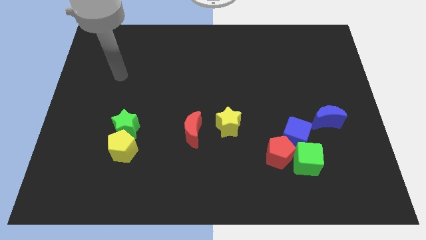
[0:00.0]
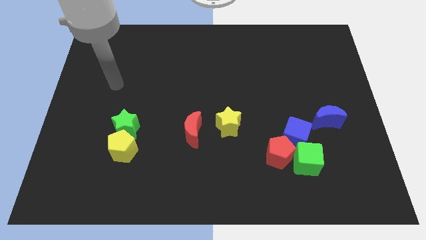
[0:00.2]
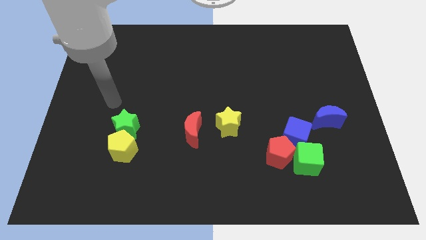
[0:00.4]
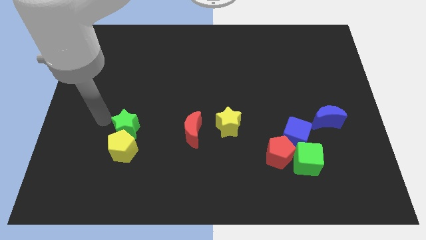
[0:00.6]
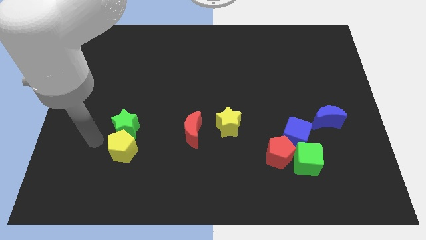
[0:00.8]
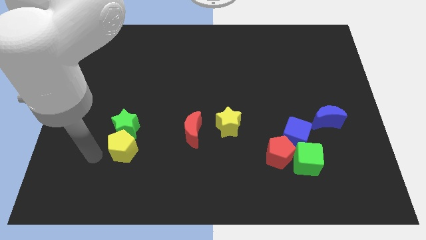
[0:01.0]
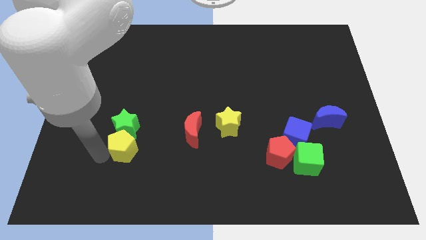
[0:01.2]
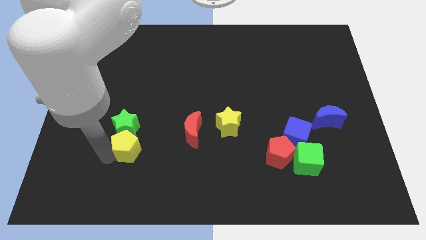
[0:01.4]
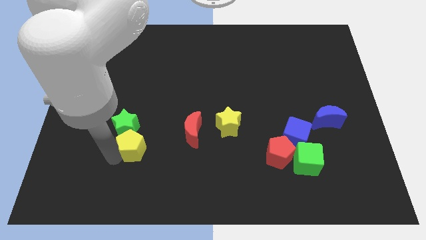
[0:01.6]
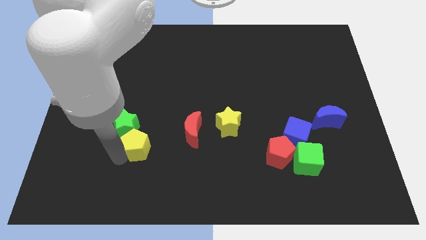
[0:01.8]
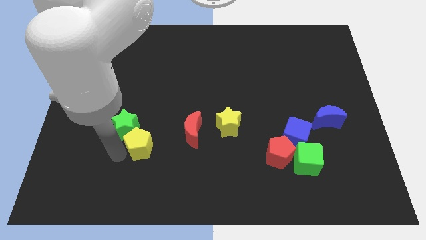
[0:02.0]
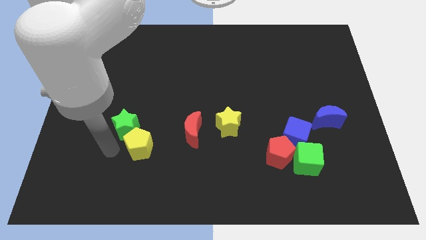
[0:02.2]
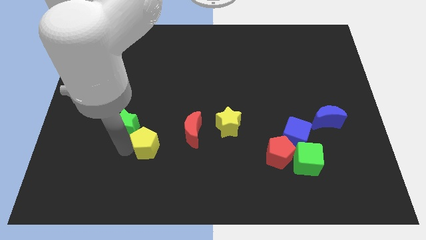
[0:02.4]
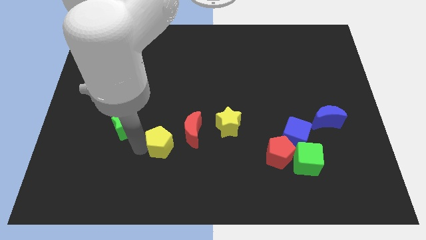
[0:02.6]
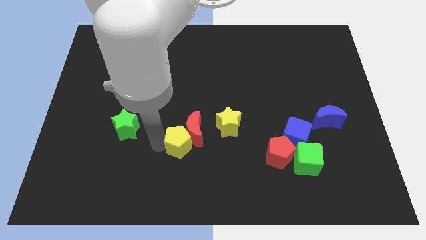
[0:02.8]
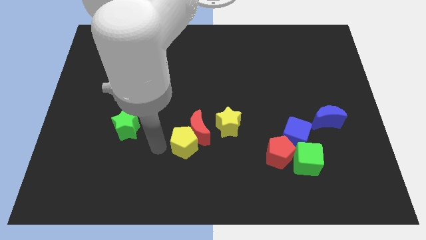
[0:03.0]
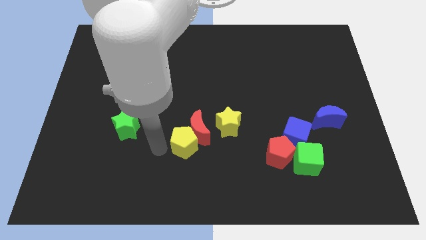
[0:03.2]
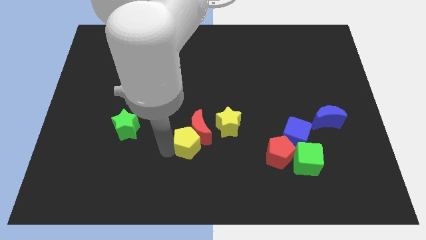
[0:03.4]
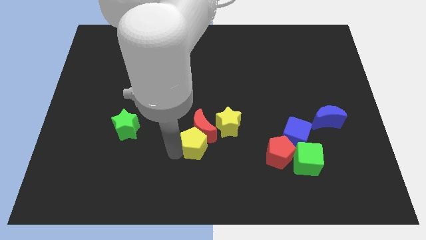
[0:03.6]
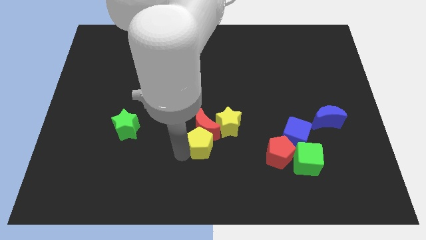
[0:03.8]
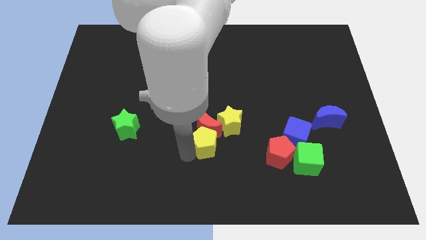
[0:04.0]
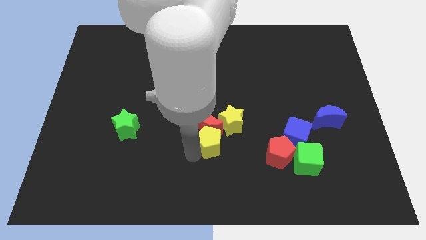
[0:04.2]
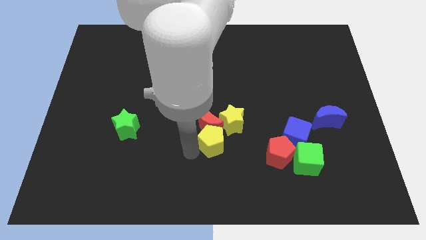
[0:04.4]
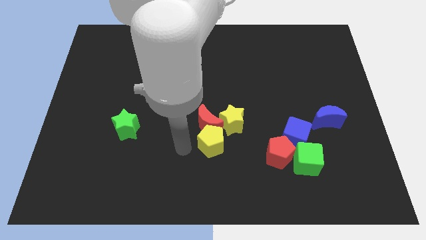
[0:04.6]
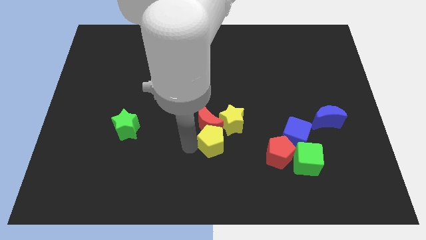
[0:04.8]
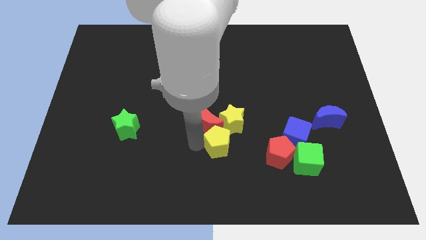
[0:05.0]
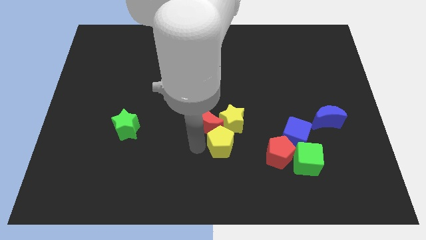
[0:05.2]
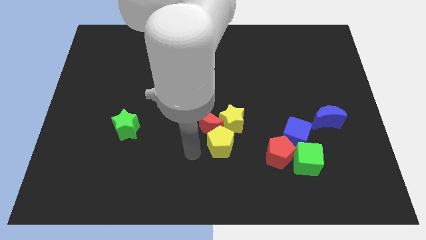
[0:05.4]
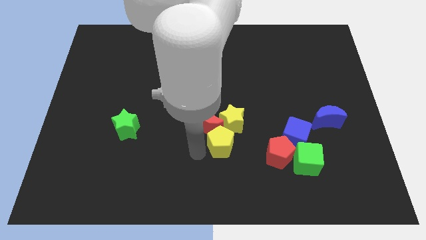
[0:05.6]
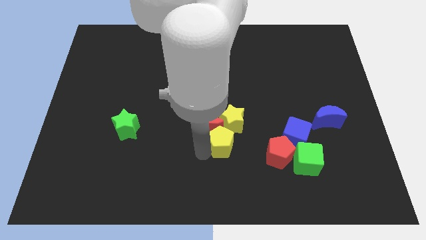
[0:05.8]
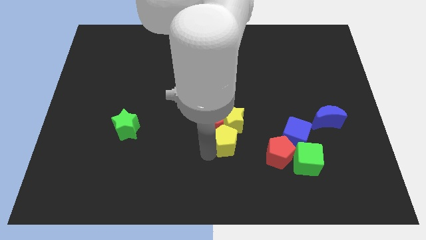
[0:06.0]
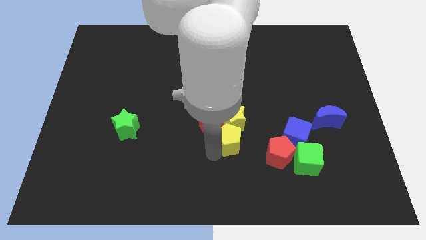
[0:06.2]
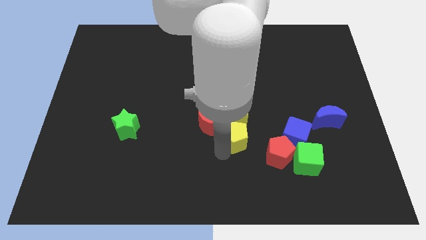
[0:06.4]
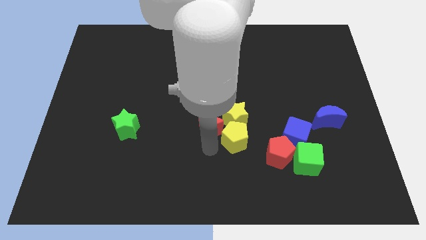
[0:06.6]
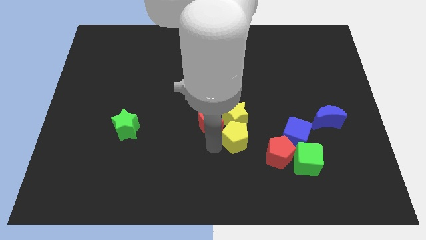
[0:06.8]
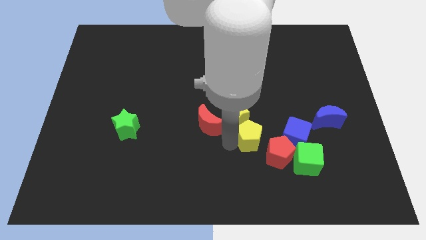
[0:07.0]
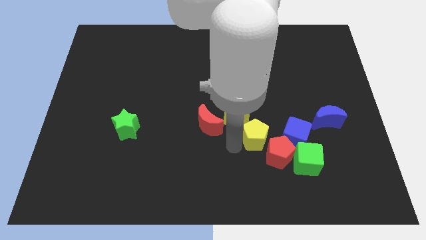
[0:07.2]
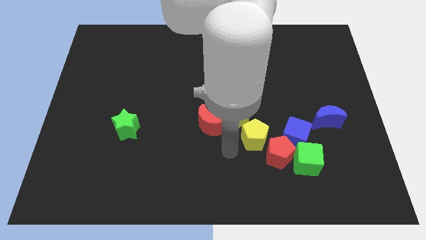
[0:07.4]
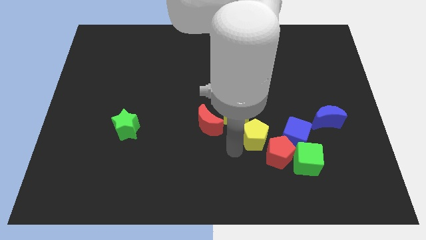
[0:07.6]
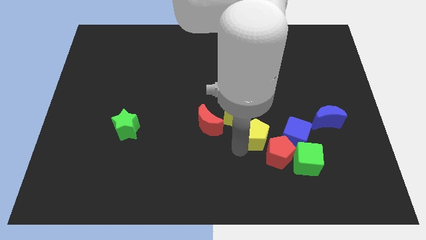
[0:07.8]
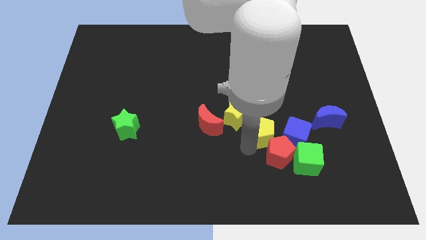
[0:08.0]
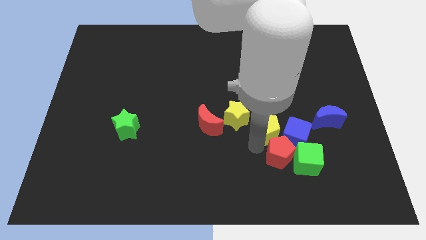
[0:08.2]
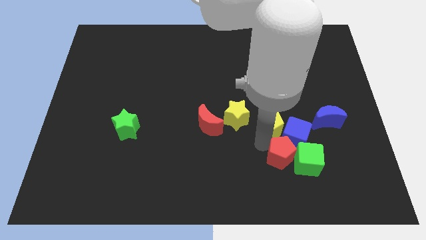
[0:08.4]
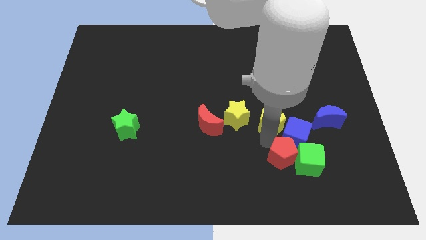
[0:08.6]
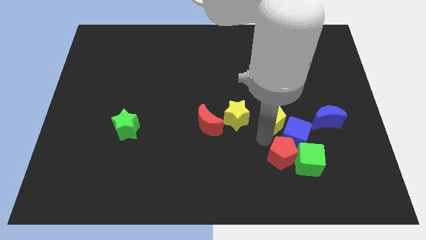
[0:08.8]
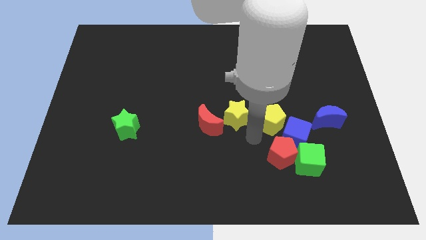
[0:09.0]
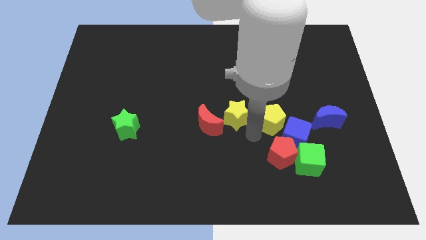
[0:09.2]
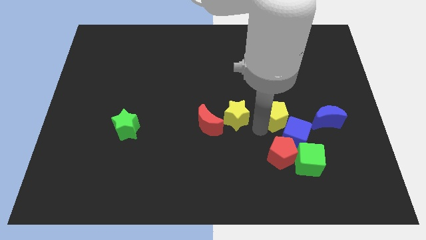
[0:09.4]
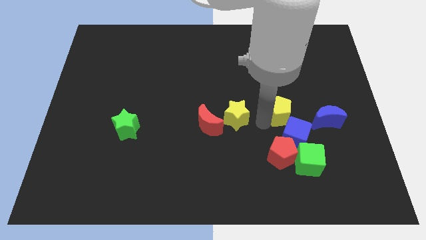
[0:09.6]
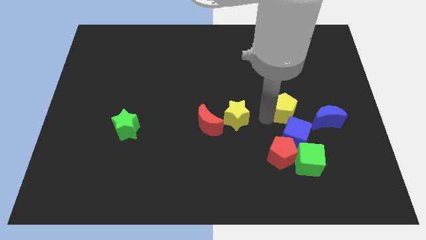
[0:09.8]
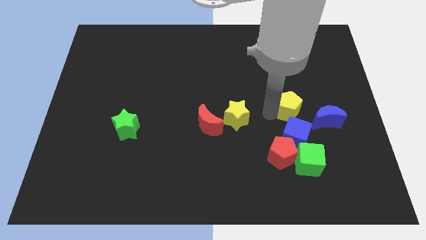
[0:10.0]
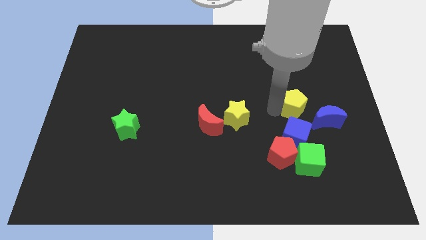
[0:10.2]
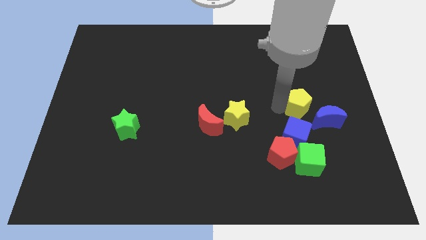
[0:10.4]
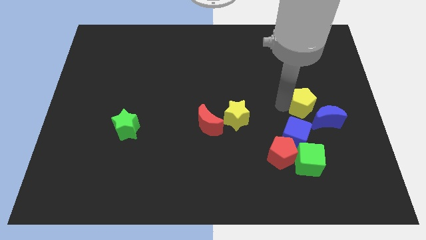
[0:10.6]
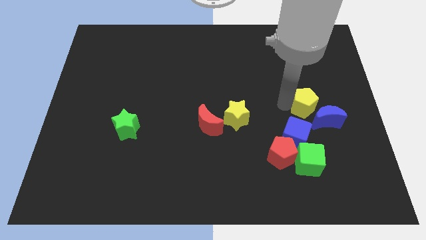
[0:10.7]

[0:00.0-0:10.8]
put the yellow pentagon next to the blue moon

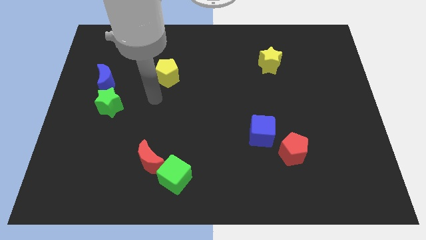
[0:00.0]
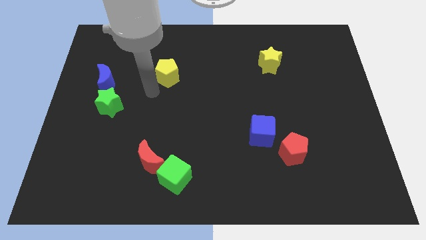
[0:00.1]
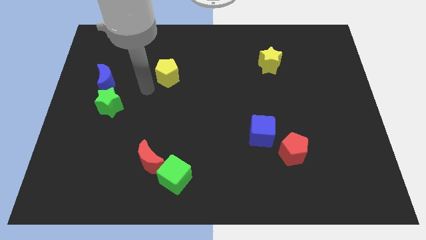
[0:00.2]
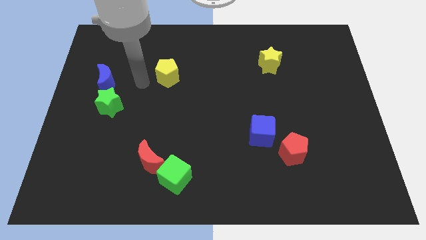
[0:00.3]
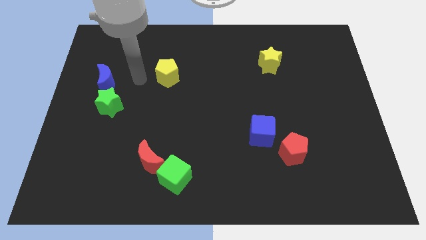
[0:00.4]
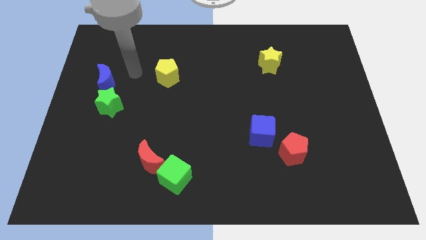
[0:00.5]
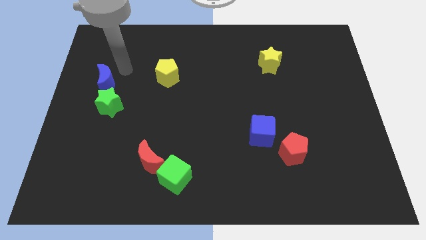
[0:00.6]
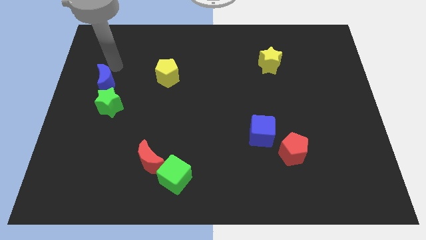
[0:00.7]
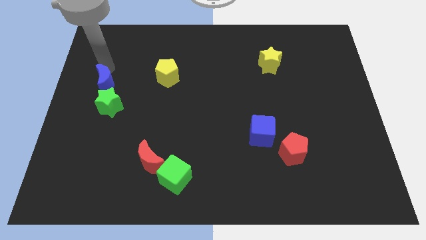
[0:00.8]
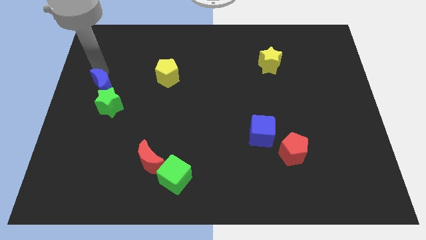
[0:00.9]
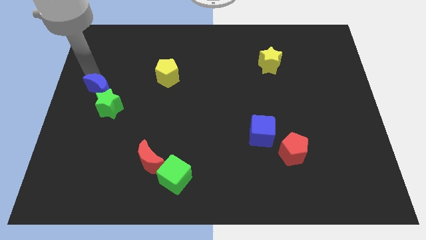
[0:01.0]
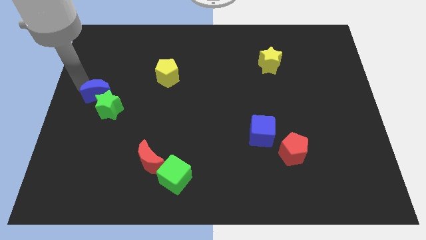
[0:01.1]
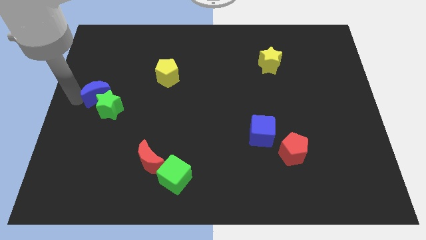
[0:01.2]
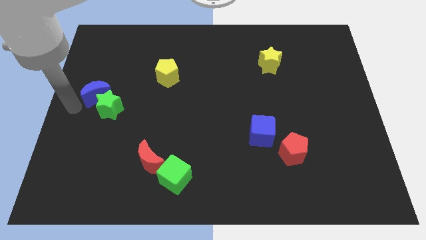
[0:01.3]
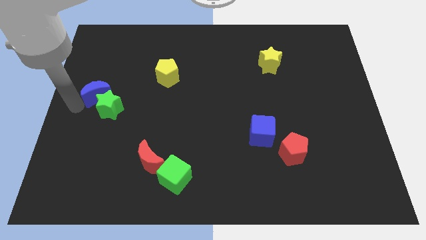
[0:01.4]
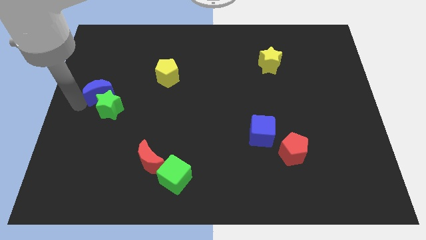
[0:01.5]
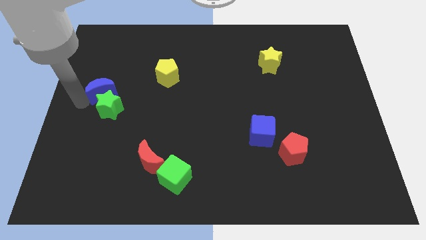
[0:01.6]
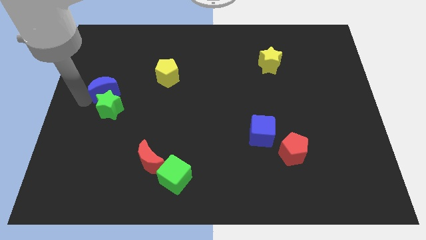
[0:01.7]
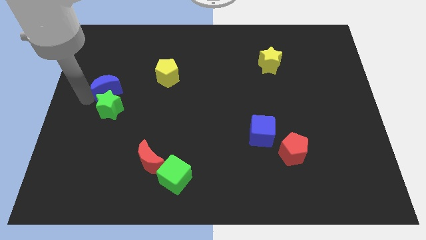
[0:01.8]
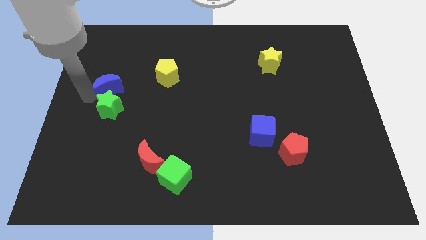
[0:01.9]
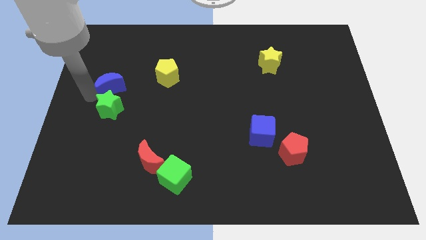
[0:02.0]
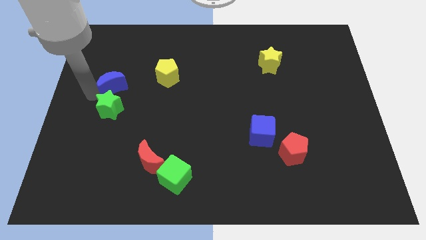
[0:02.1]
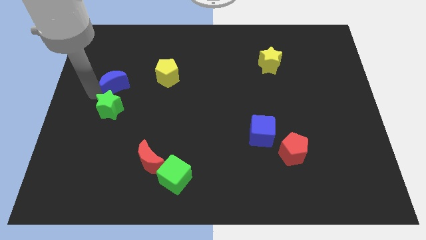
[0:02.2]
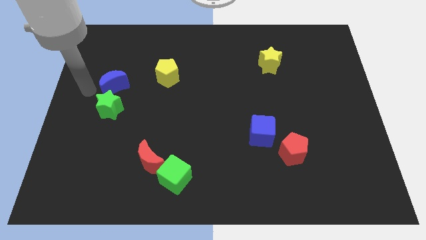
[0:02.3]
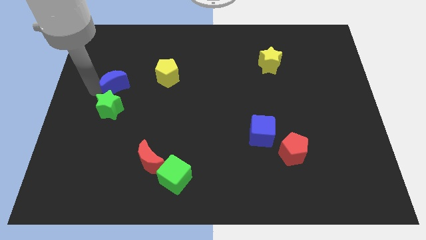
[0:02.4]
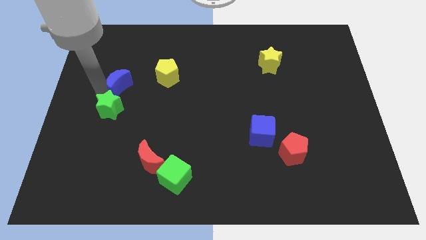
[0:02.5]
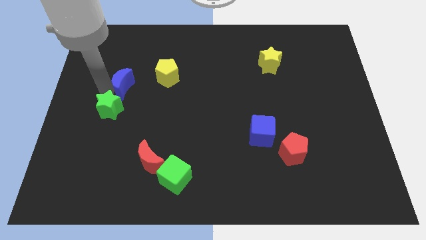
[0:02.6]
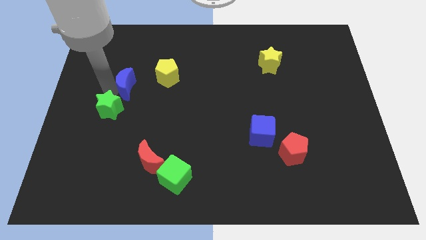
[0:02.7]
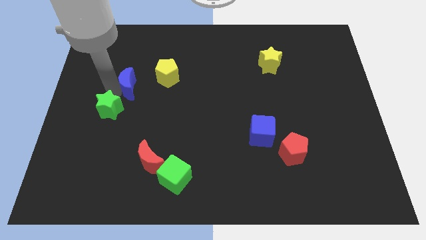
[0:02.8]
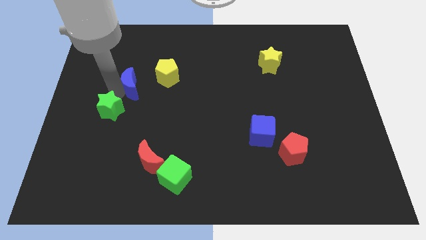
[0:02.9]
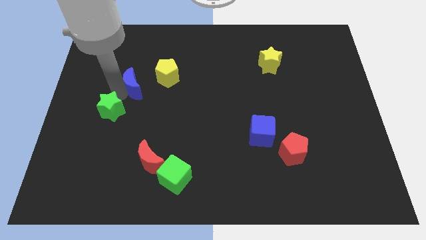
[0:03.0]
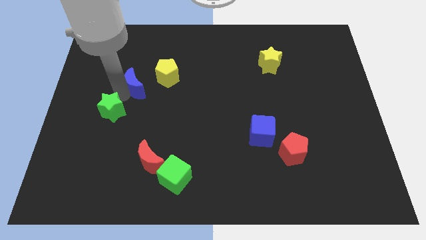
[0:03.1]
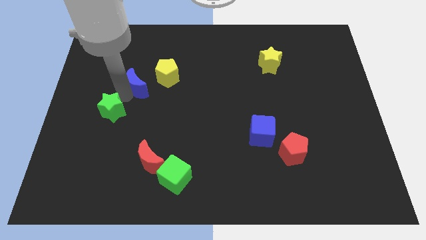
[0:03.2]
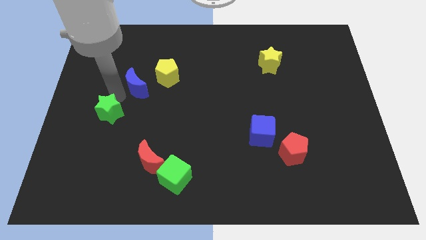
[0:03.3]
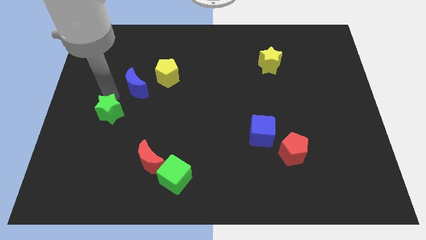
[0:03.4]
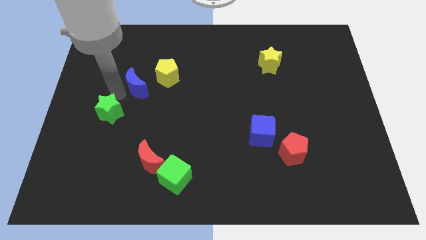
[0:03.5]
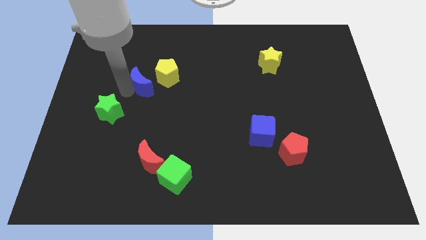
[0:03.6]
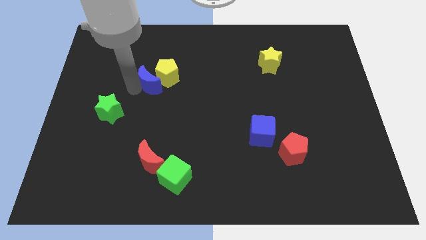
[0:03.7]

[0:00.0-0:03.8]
slide the blue moon towards the yellow pentagon
